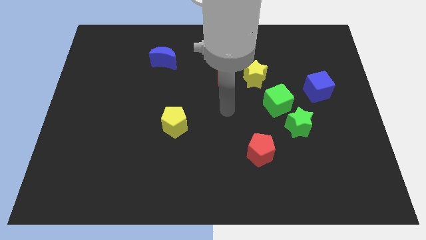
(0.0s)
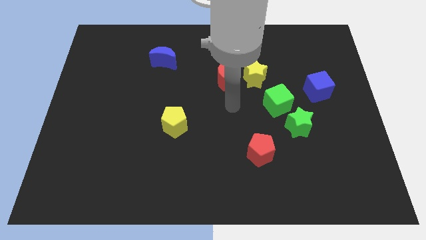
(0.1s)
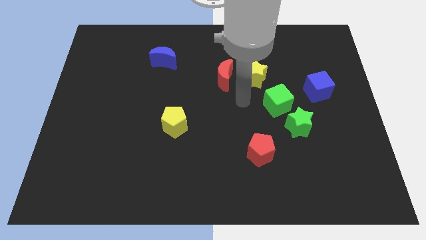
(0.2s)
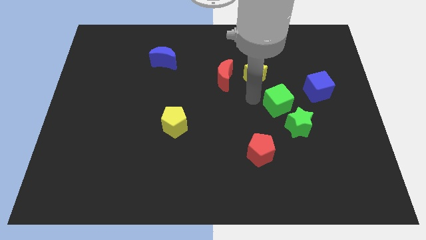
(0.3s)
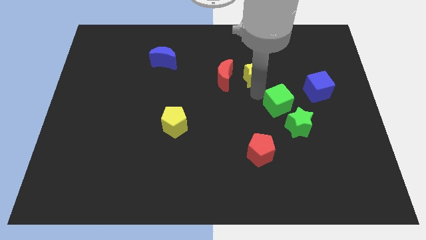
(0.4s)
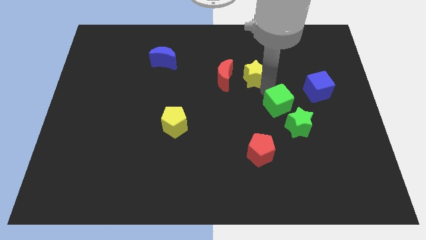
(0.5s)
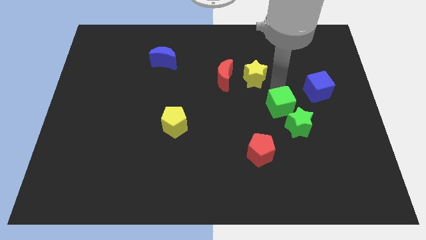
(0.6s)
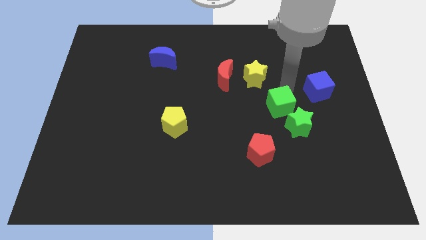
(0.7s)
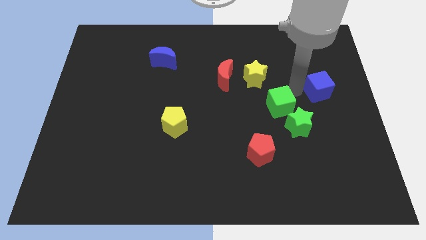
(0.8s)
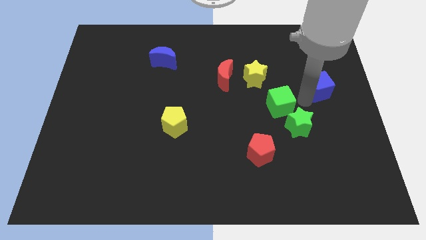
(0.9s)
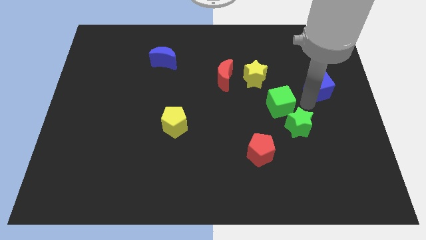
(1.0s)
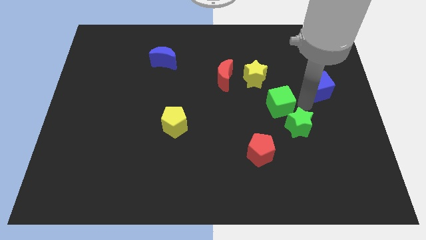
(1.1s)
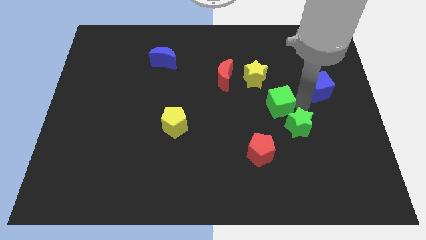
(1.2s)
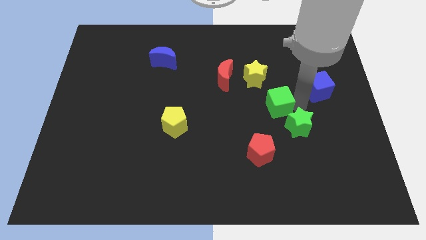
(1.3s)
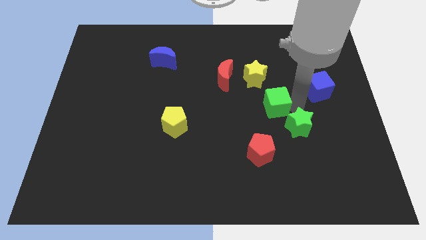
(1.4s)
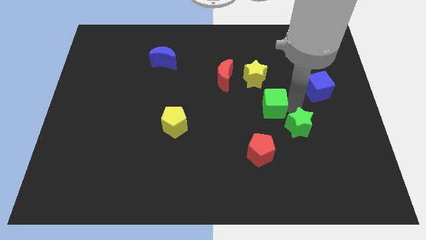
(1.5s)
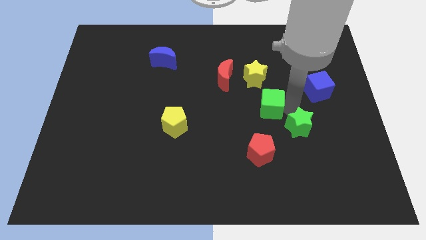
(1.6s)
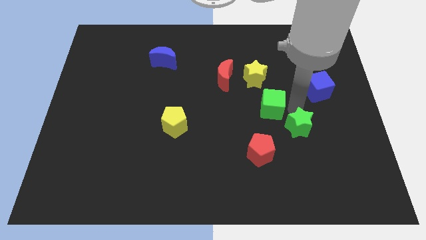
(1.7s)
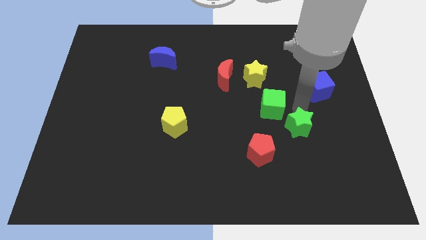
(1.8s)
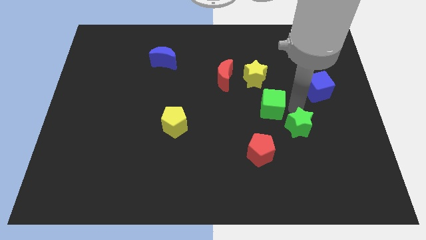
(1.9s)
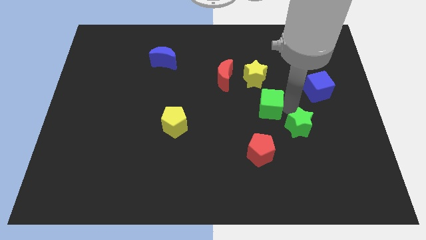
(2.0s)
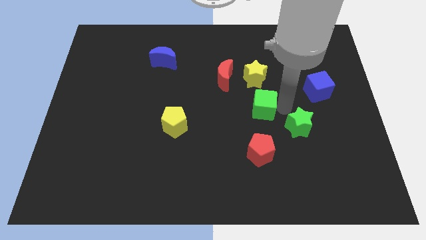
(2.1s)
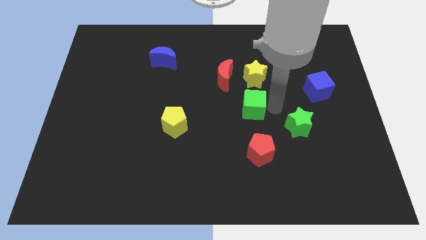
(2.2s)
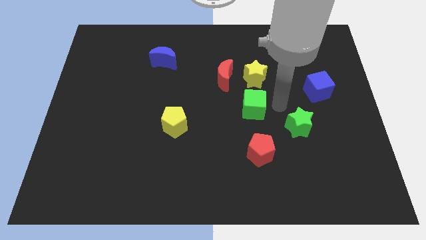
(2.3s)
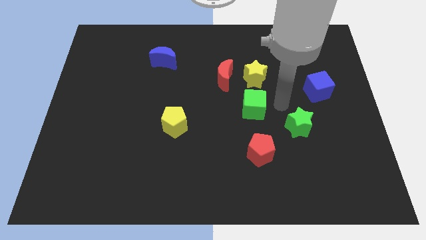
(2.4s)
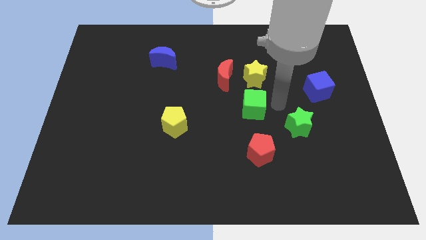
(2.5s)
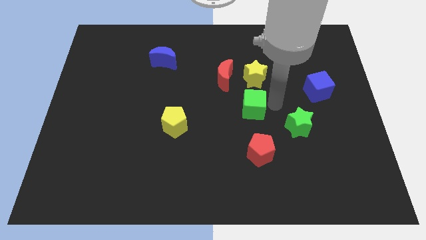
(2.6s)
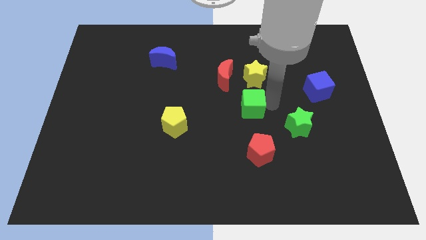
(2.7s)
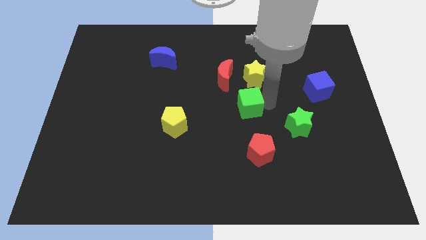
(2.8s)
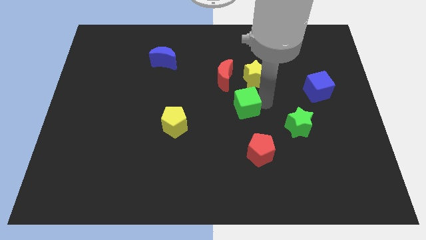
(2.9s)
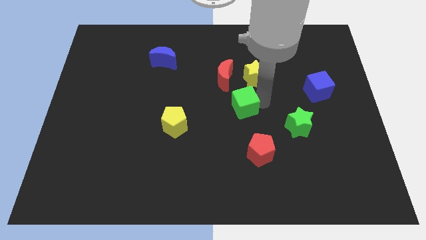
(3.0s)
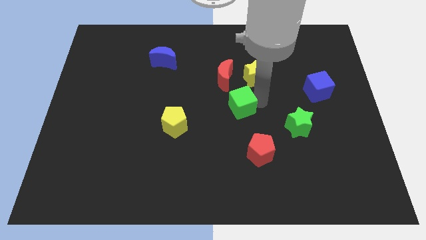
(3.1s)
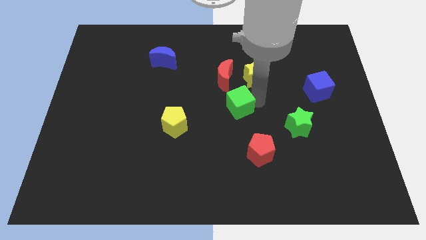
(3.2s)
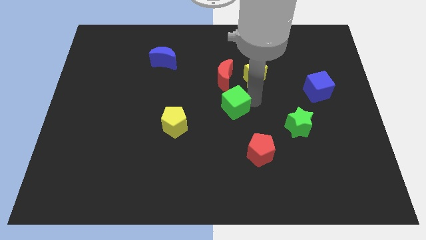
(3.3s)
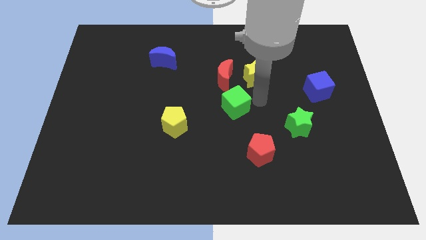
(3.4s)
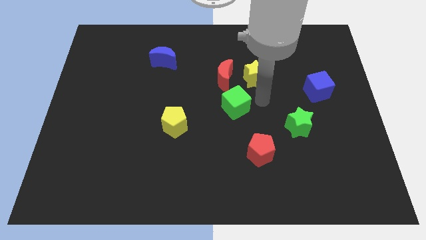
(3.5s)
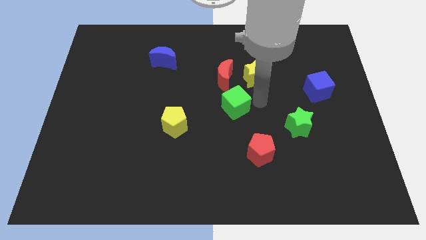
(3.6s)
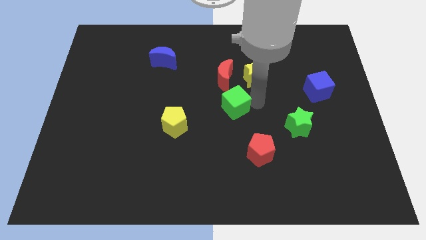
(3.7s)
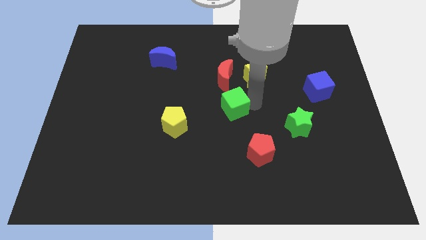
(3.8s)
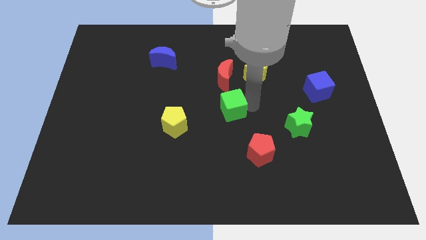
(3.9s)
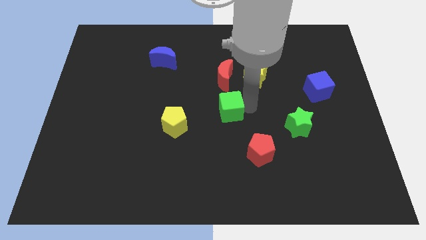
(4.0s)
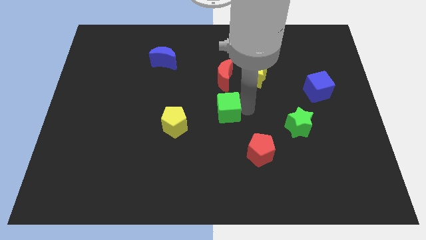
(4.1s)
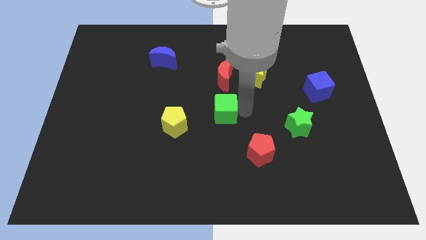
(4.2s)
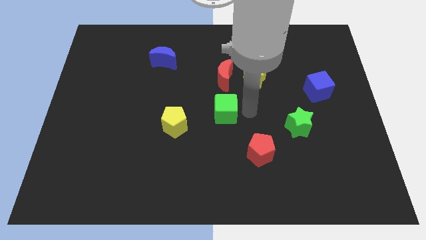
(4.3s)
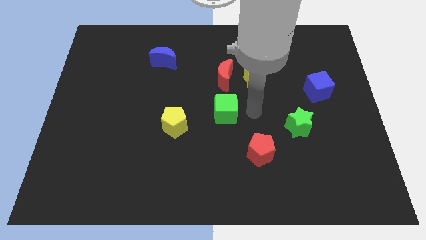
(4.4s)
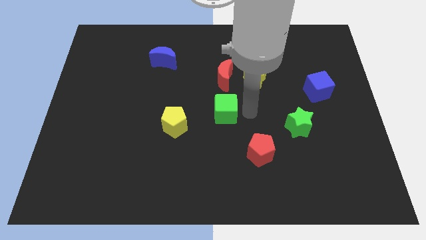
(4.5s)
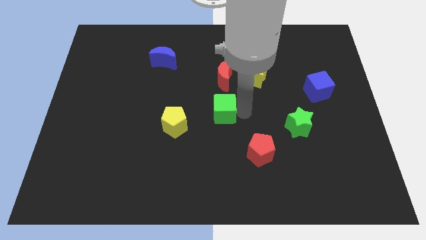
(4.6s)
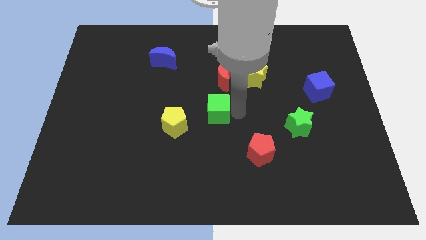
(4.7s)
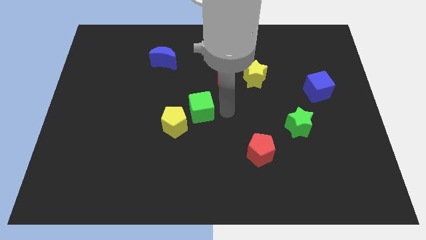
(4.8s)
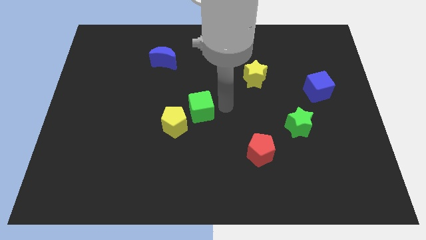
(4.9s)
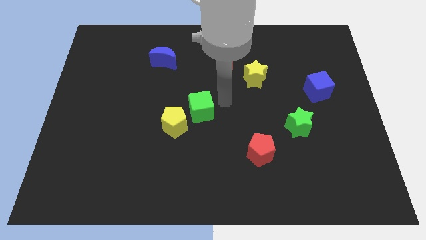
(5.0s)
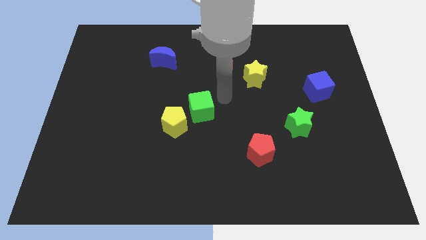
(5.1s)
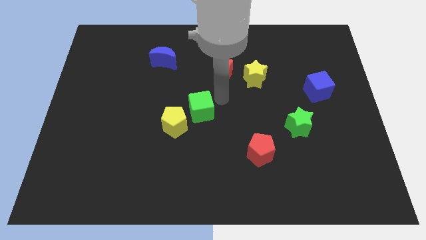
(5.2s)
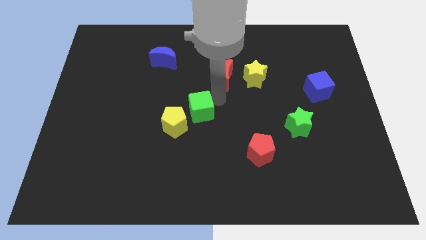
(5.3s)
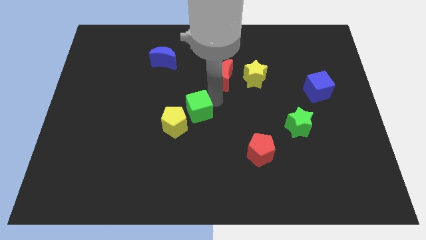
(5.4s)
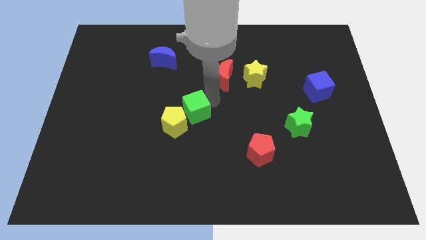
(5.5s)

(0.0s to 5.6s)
push the green cube next to the yellow pentagon

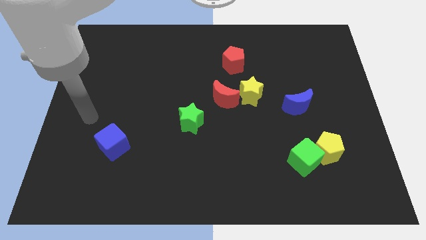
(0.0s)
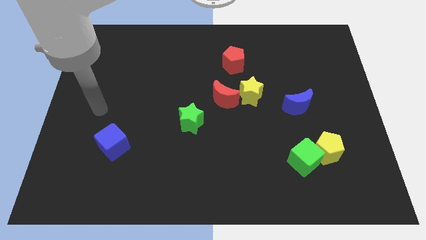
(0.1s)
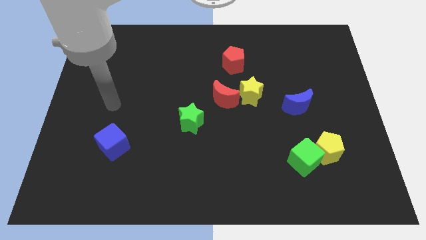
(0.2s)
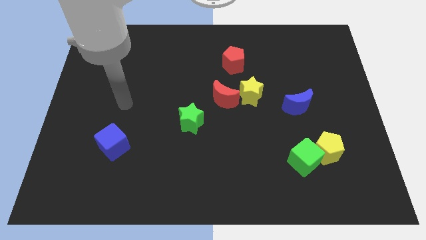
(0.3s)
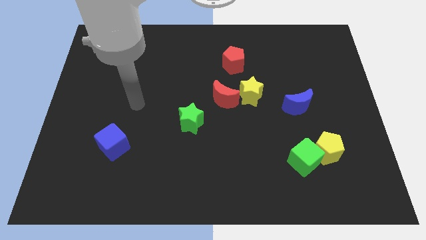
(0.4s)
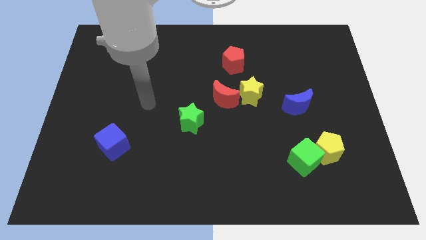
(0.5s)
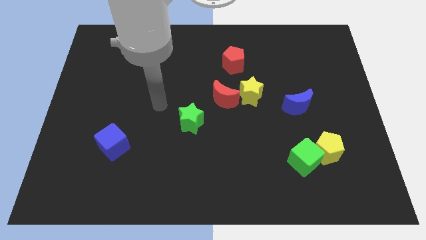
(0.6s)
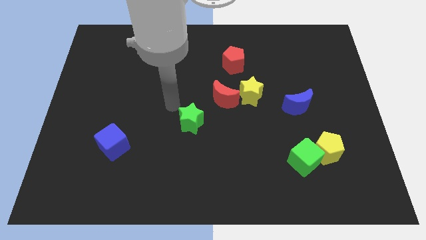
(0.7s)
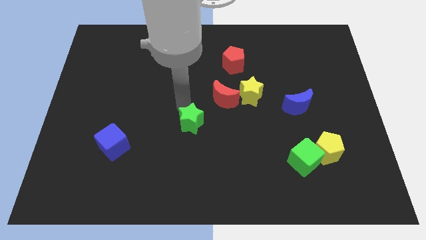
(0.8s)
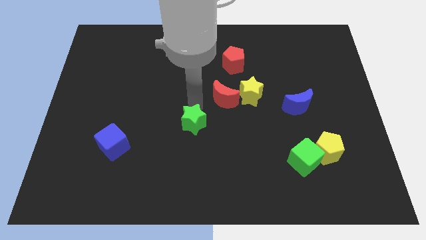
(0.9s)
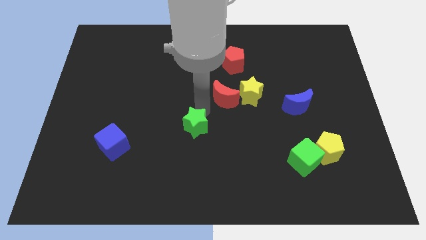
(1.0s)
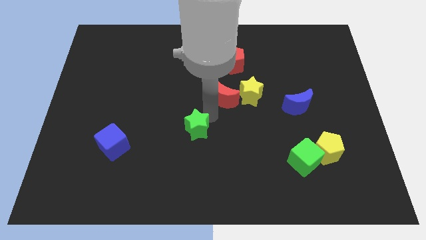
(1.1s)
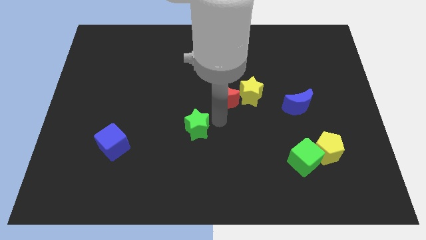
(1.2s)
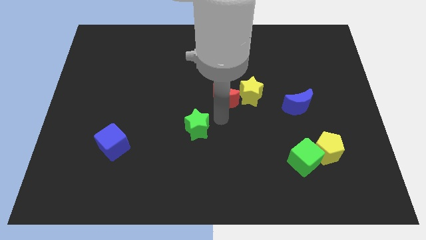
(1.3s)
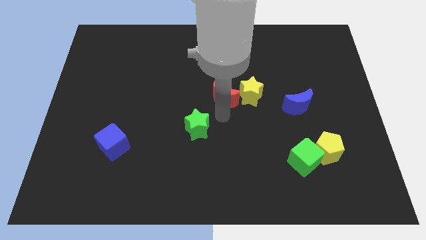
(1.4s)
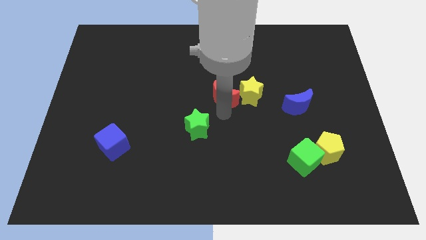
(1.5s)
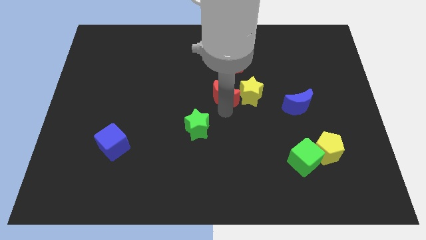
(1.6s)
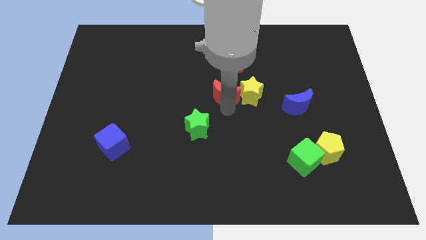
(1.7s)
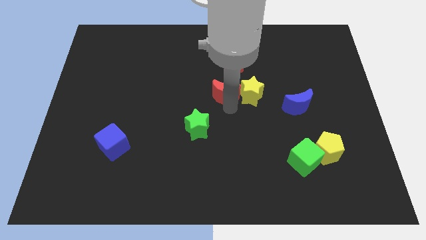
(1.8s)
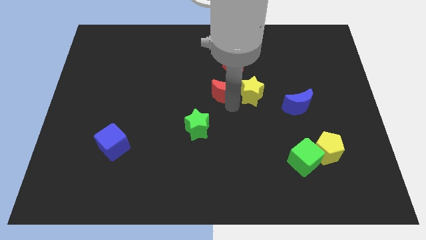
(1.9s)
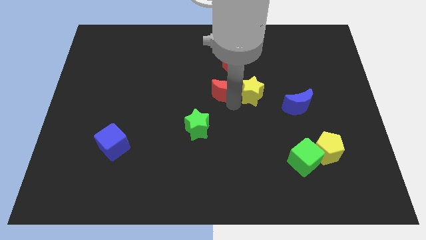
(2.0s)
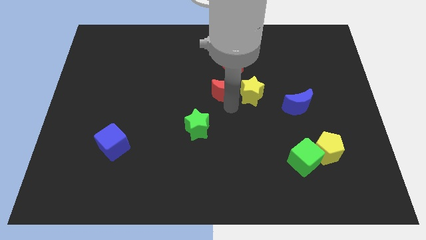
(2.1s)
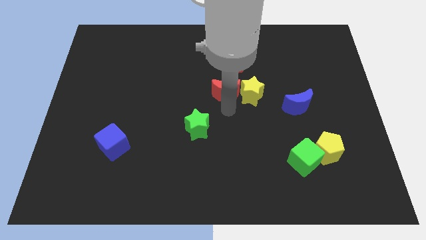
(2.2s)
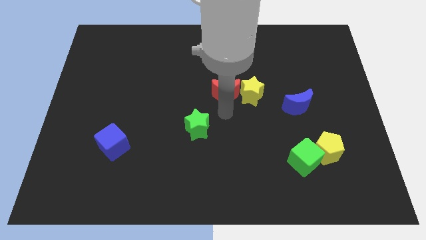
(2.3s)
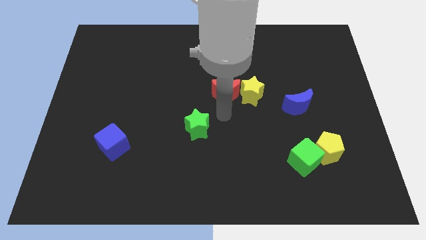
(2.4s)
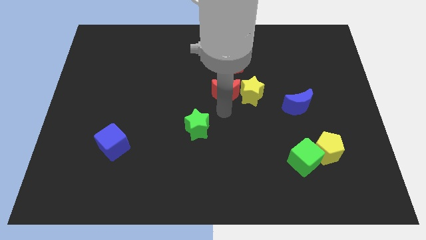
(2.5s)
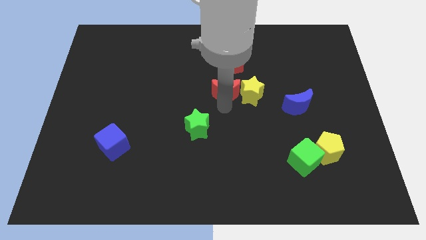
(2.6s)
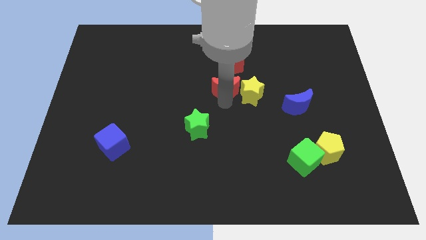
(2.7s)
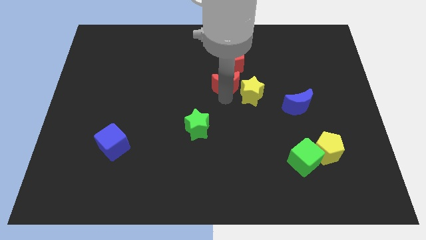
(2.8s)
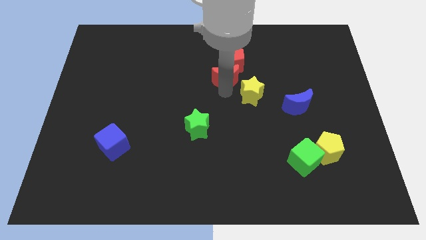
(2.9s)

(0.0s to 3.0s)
push the red moon towards the red pentagon
